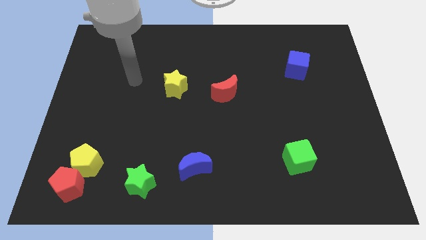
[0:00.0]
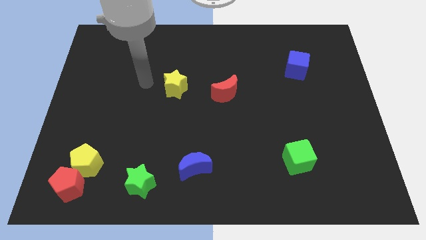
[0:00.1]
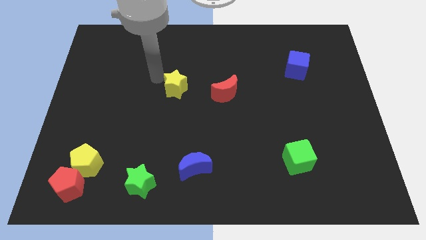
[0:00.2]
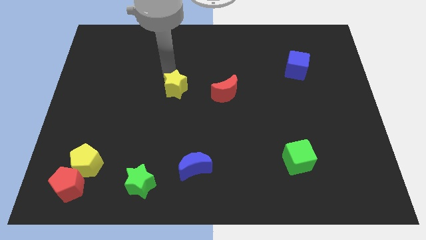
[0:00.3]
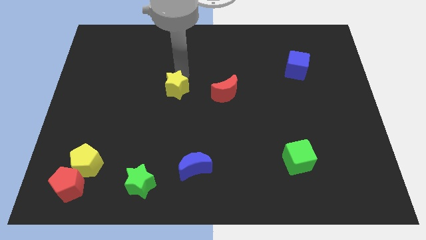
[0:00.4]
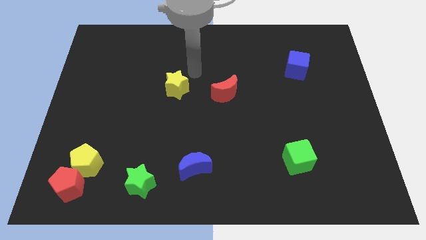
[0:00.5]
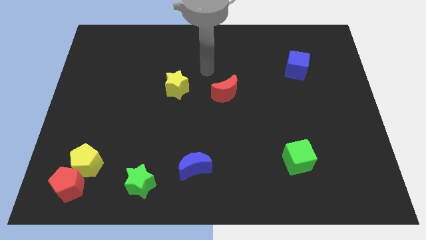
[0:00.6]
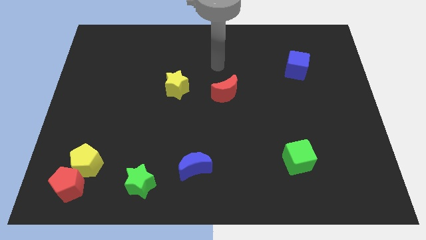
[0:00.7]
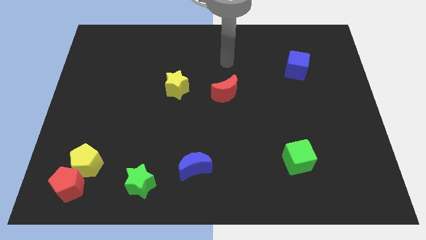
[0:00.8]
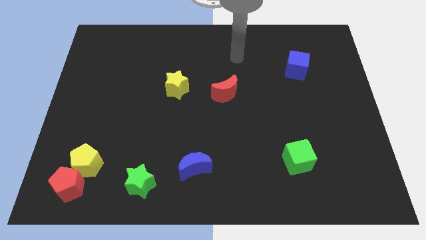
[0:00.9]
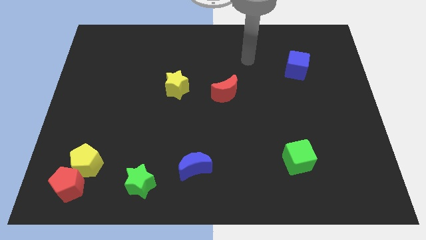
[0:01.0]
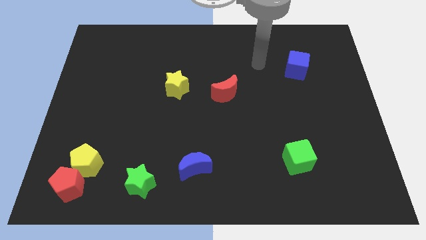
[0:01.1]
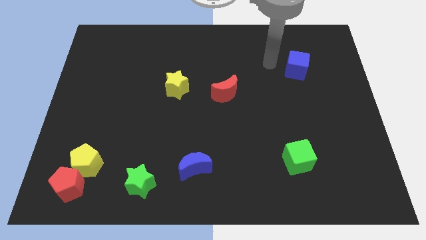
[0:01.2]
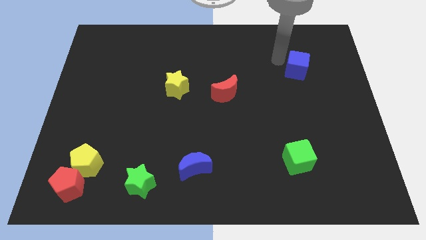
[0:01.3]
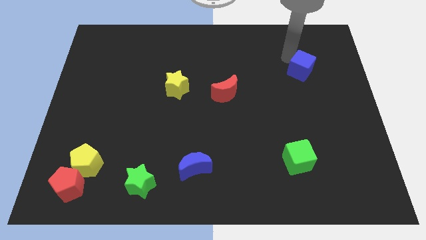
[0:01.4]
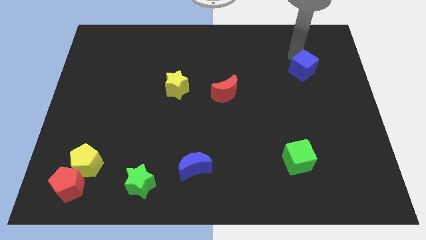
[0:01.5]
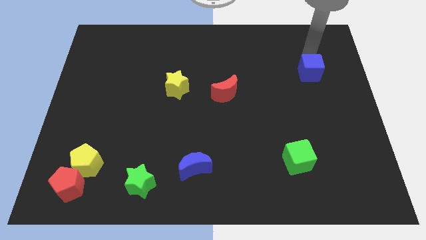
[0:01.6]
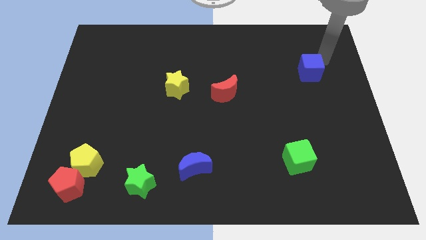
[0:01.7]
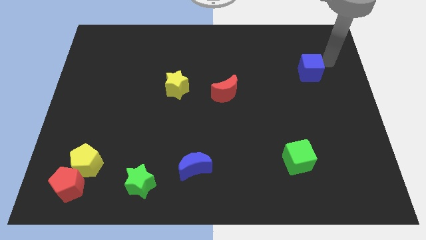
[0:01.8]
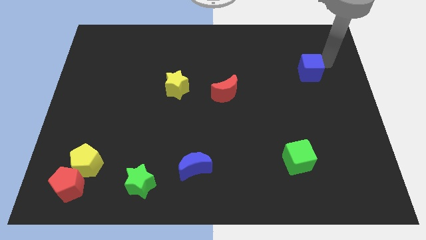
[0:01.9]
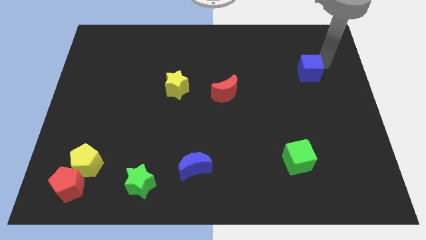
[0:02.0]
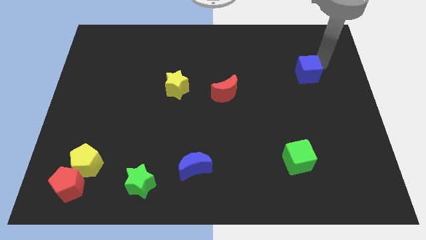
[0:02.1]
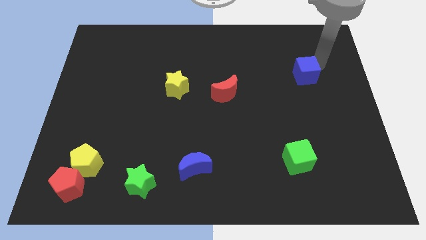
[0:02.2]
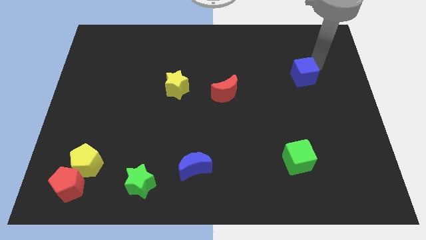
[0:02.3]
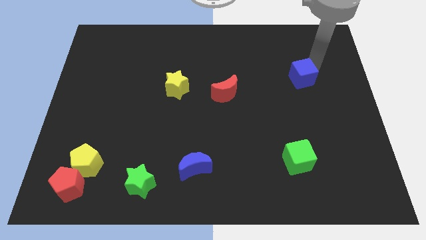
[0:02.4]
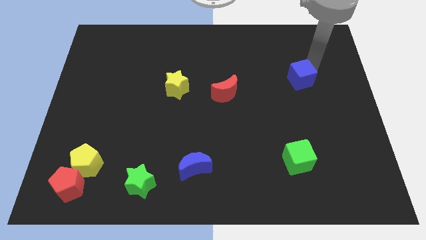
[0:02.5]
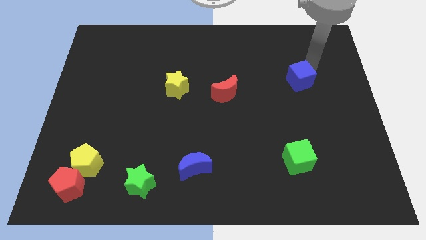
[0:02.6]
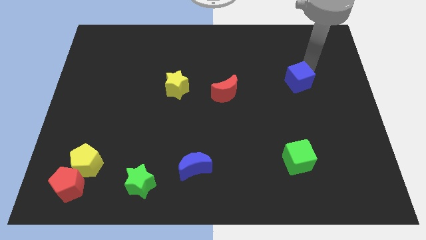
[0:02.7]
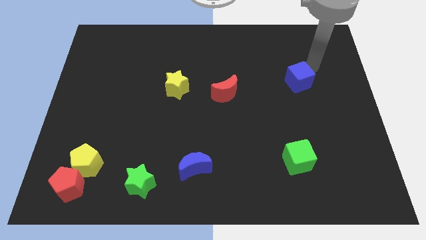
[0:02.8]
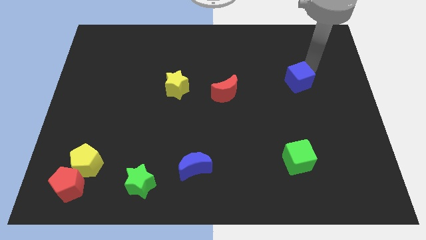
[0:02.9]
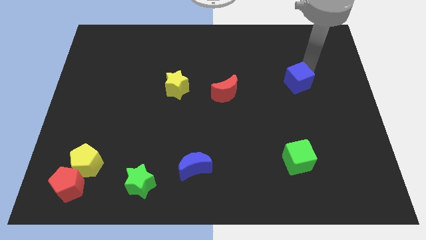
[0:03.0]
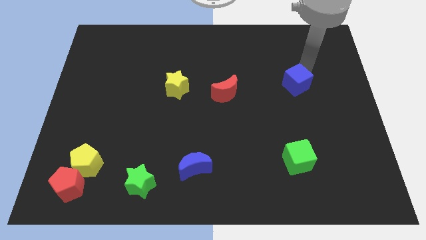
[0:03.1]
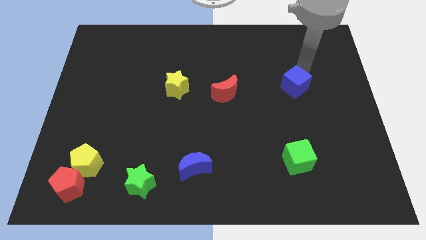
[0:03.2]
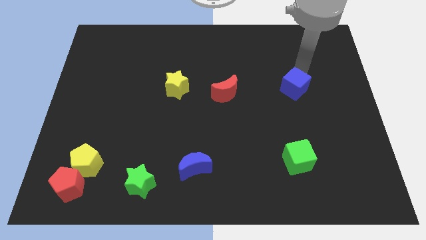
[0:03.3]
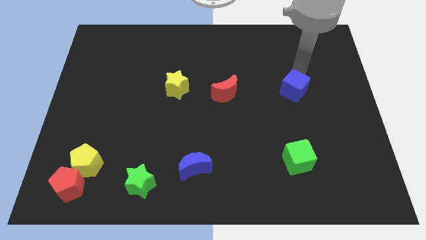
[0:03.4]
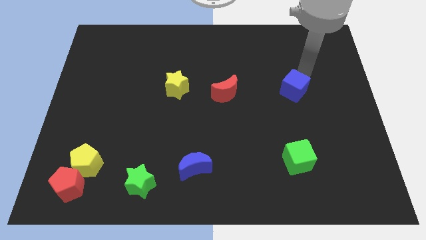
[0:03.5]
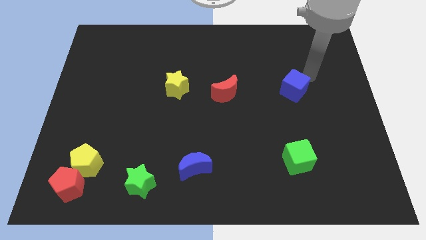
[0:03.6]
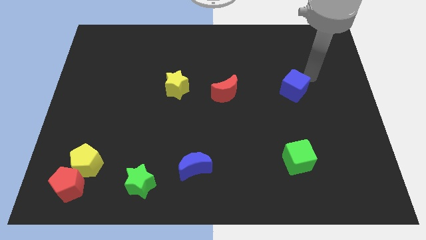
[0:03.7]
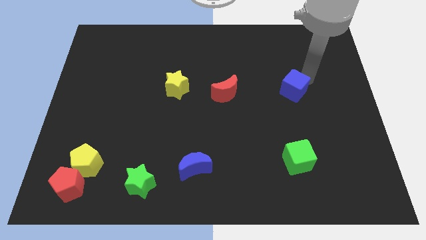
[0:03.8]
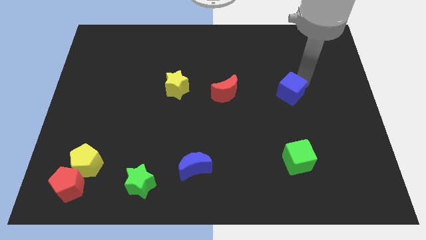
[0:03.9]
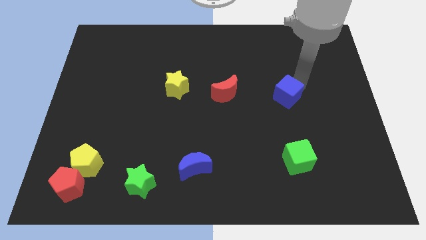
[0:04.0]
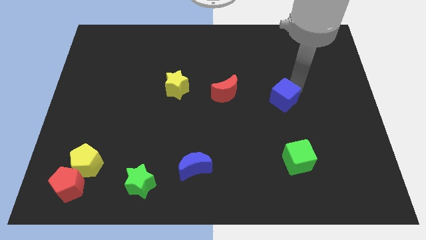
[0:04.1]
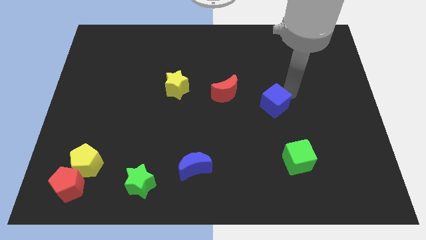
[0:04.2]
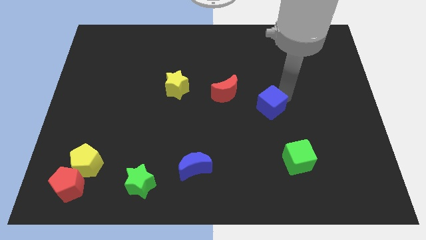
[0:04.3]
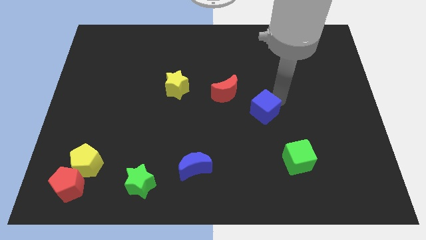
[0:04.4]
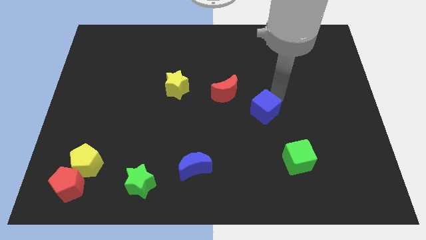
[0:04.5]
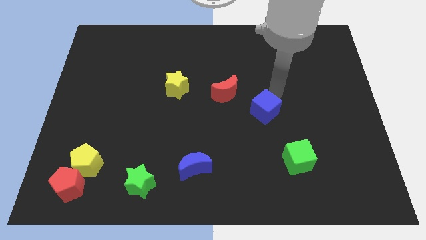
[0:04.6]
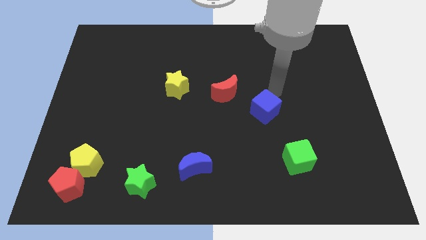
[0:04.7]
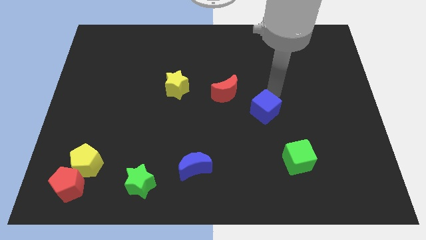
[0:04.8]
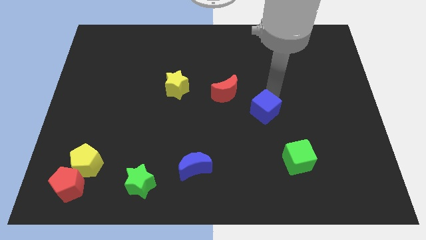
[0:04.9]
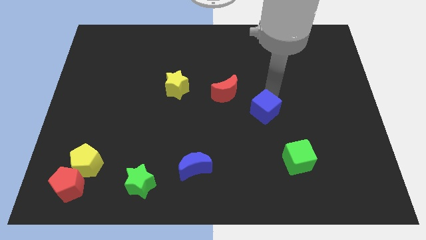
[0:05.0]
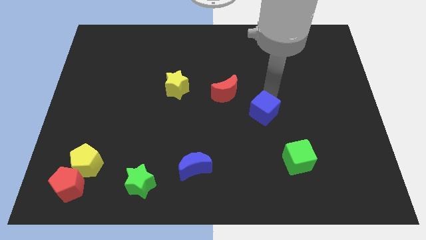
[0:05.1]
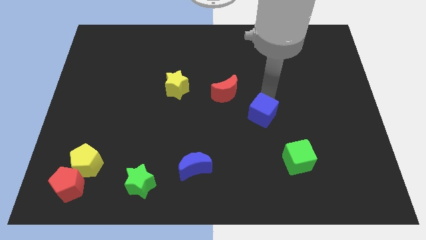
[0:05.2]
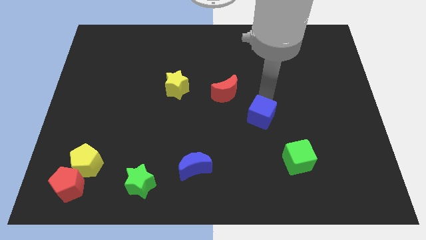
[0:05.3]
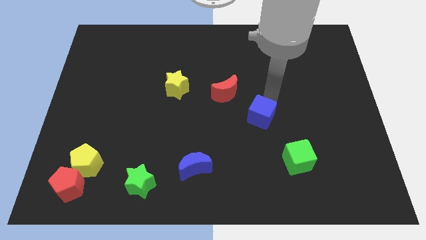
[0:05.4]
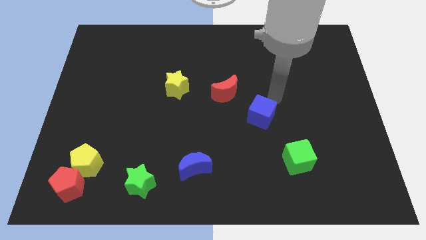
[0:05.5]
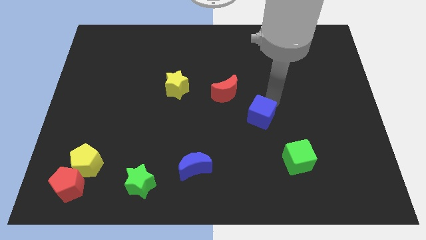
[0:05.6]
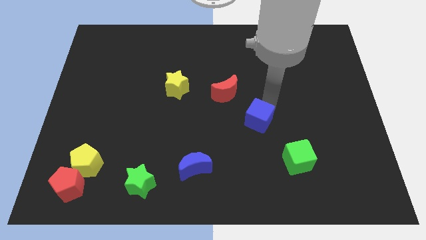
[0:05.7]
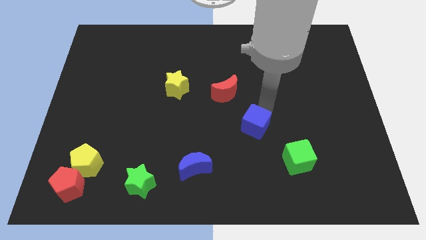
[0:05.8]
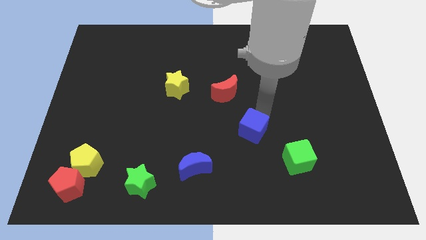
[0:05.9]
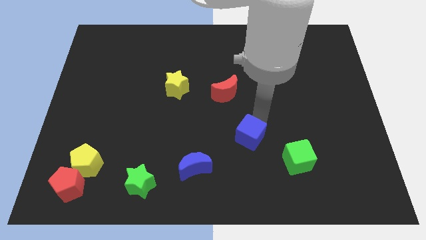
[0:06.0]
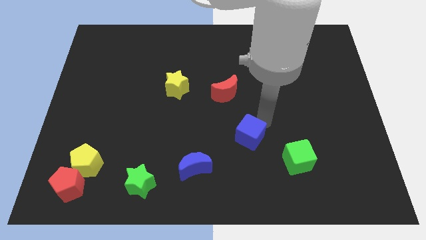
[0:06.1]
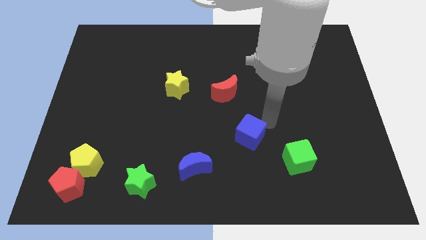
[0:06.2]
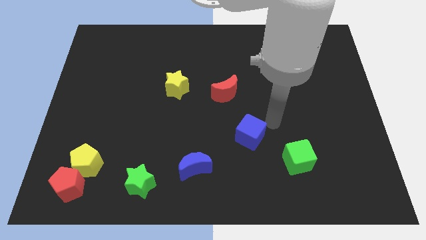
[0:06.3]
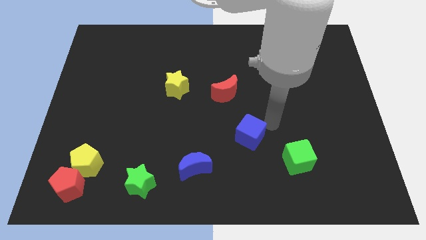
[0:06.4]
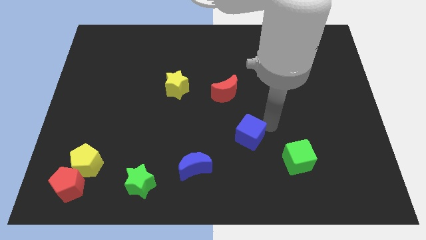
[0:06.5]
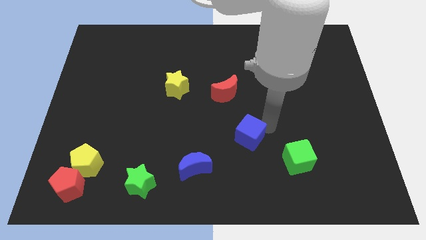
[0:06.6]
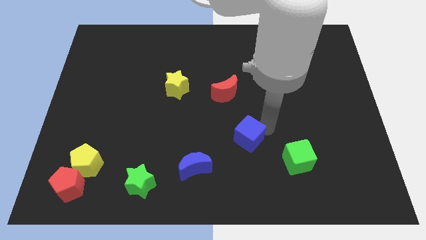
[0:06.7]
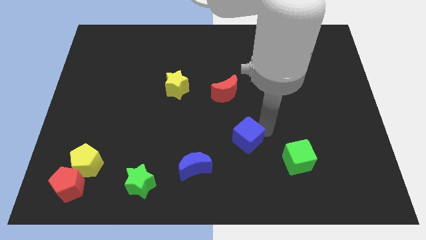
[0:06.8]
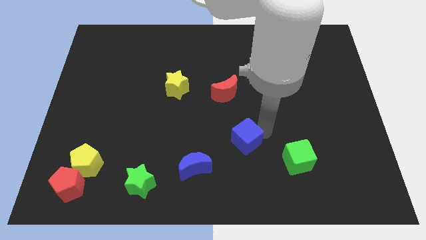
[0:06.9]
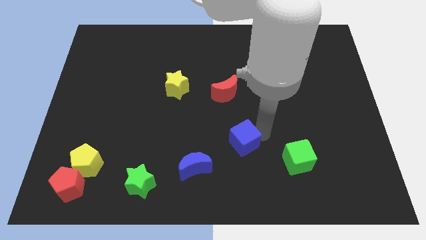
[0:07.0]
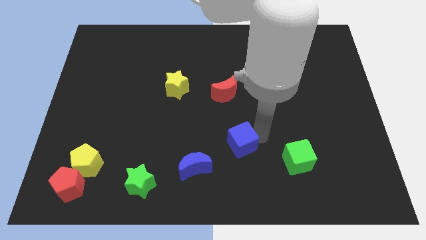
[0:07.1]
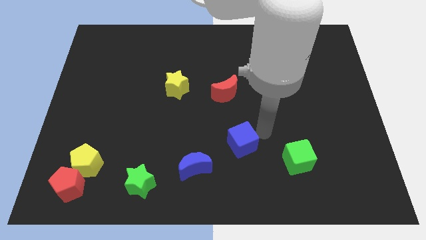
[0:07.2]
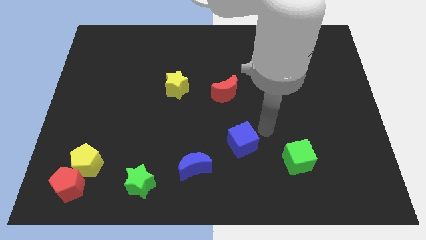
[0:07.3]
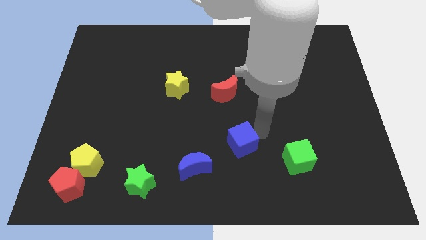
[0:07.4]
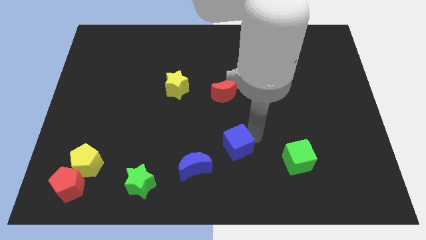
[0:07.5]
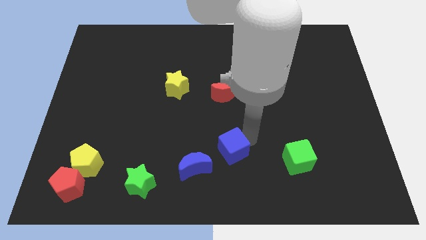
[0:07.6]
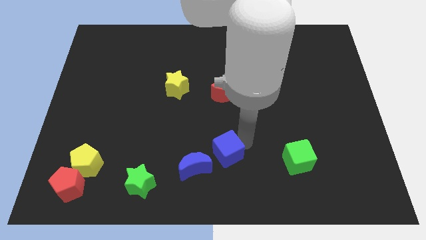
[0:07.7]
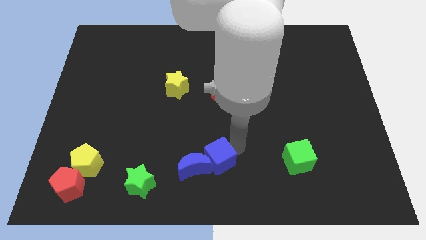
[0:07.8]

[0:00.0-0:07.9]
move the blue cube next to the blue moon
